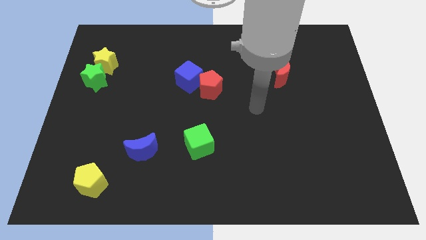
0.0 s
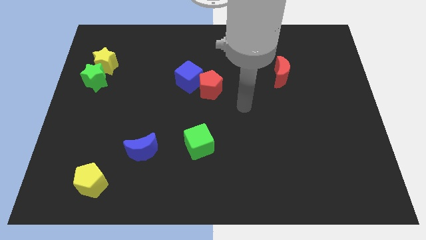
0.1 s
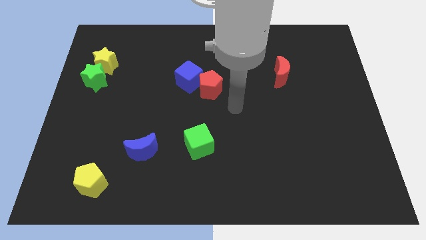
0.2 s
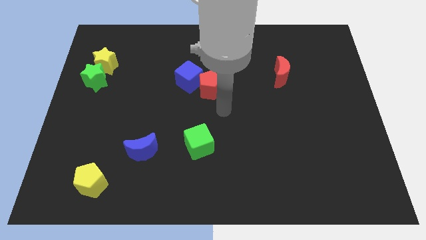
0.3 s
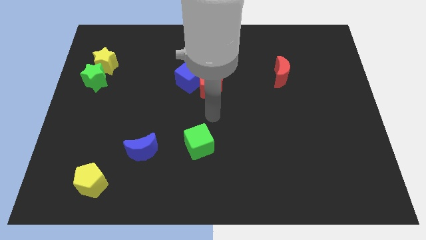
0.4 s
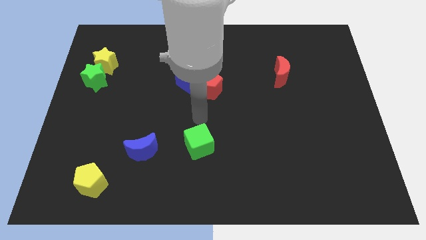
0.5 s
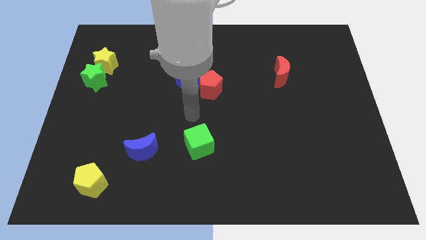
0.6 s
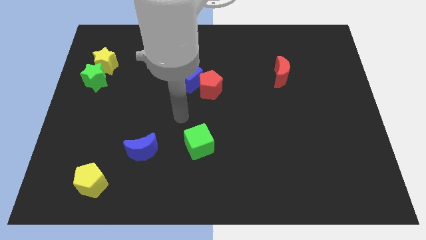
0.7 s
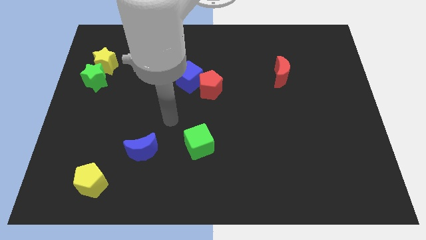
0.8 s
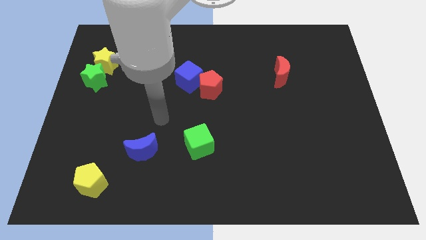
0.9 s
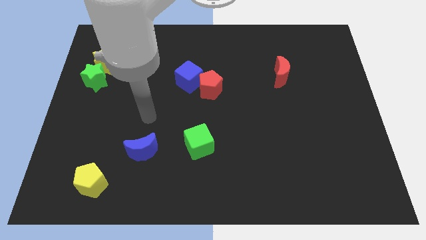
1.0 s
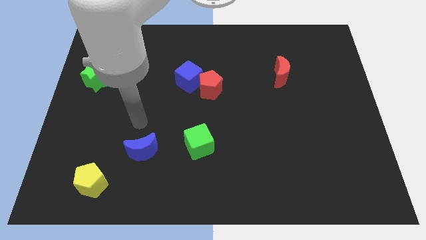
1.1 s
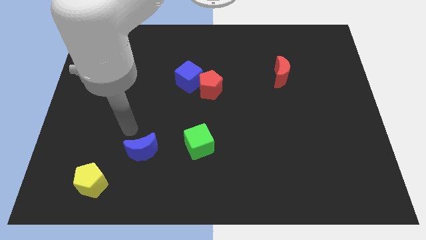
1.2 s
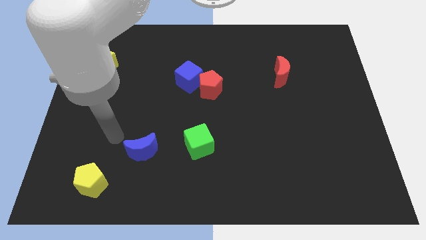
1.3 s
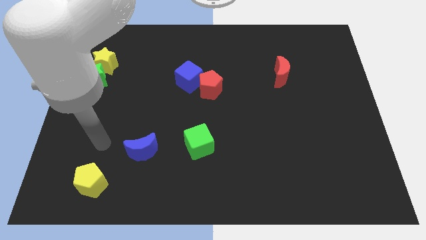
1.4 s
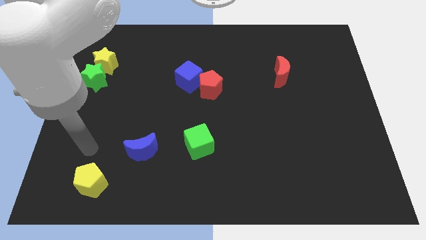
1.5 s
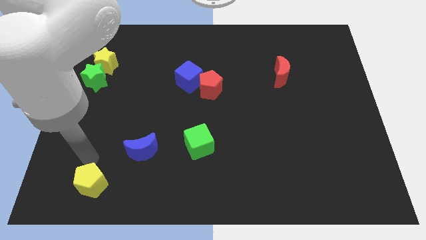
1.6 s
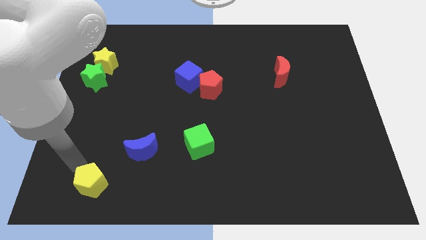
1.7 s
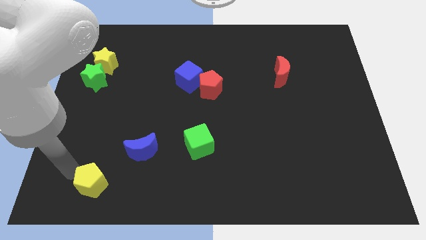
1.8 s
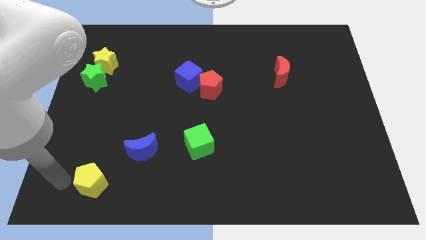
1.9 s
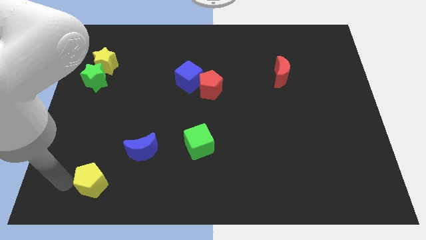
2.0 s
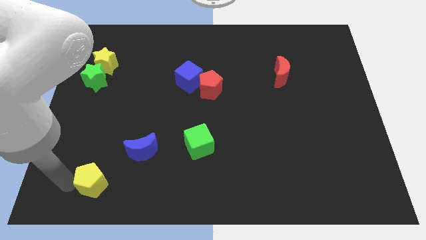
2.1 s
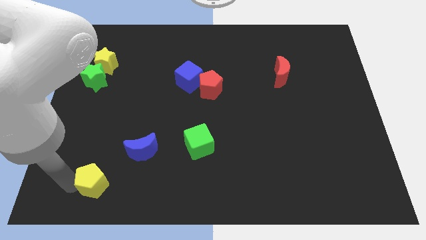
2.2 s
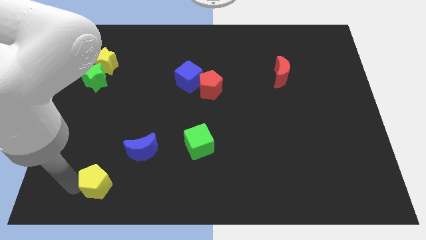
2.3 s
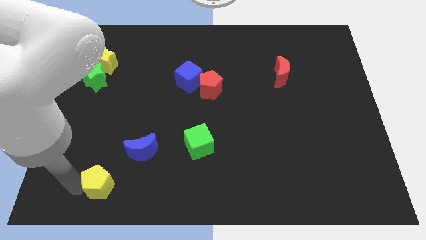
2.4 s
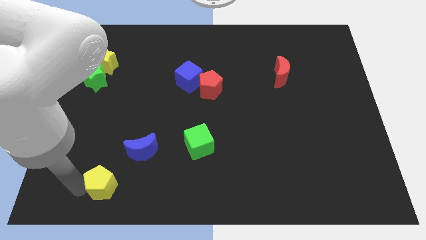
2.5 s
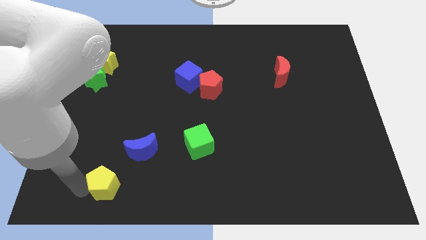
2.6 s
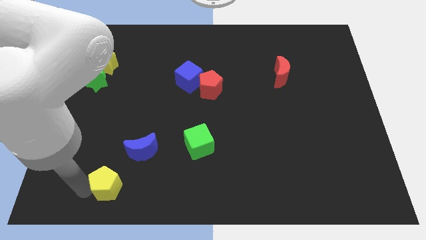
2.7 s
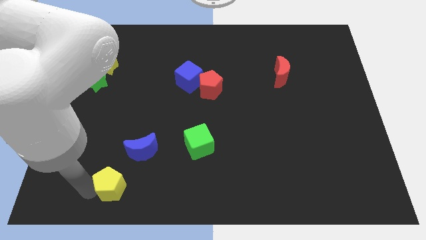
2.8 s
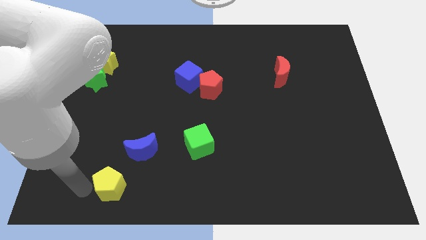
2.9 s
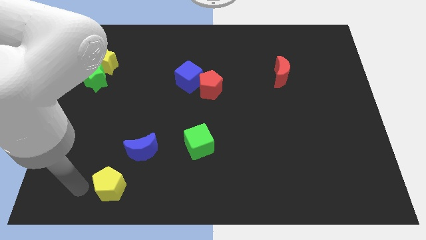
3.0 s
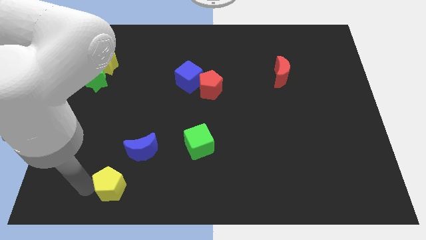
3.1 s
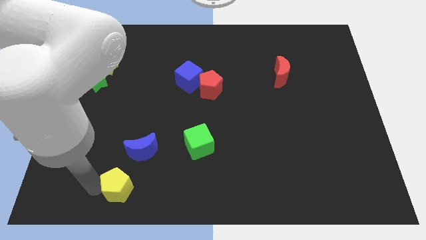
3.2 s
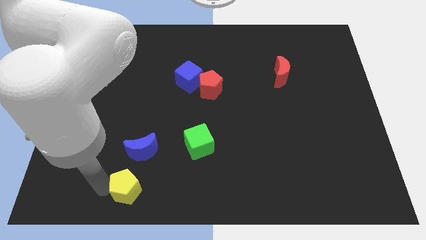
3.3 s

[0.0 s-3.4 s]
move the yellow pentagon right slightly

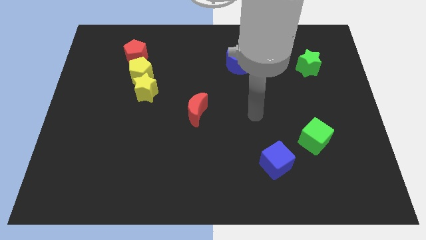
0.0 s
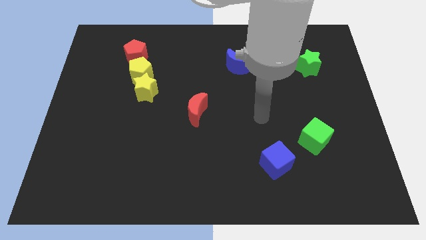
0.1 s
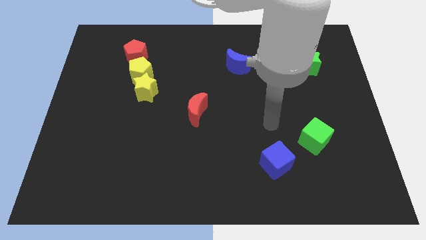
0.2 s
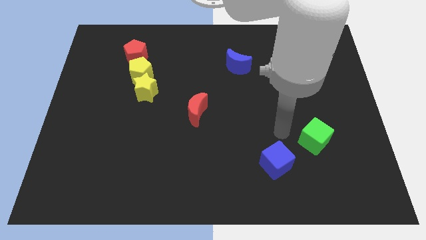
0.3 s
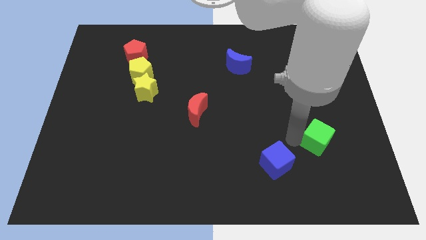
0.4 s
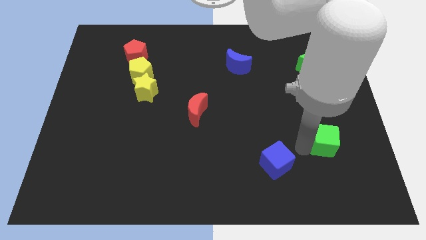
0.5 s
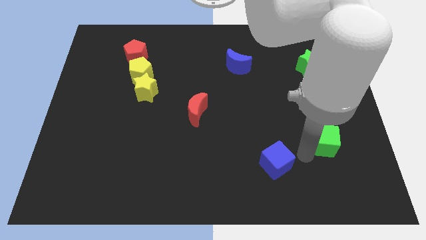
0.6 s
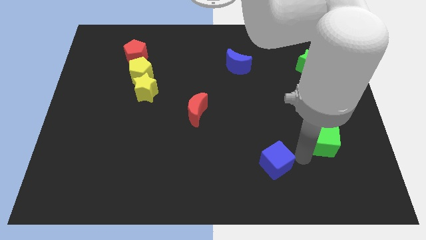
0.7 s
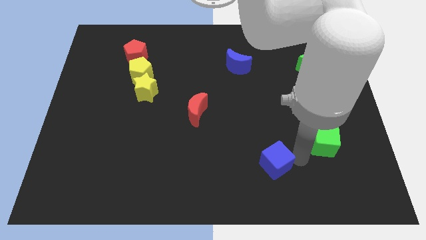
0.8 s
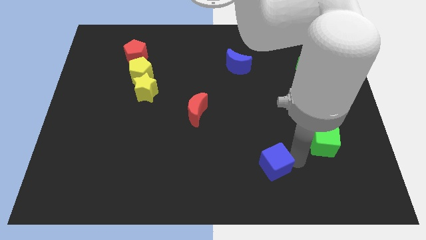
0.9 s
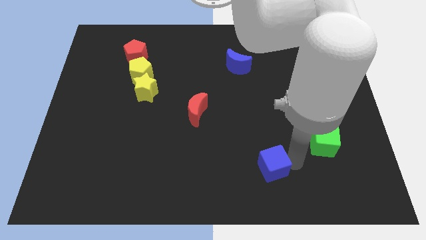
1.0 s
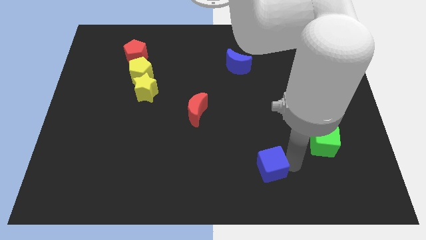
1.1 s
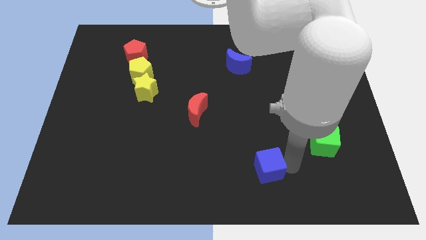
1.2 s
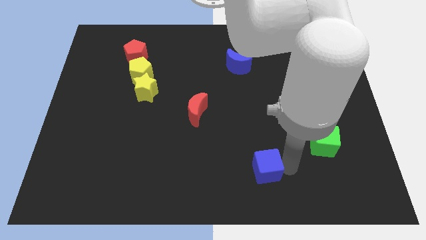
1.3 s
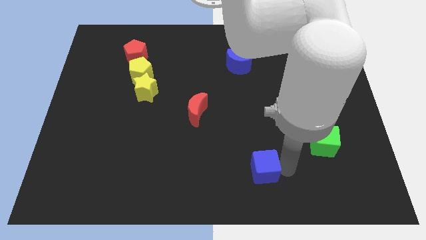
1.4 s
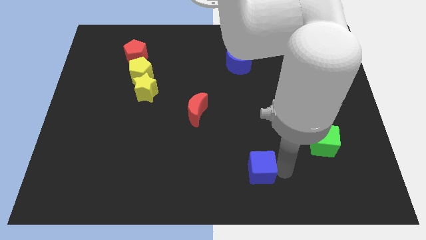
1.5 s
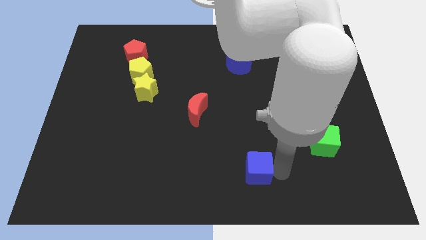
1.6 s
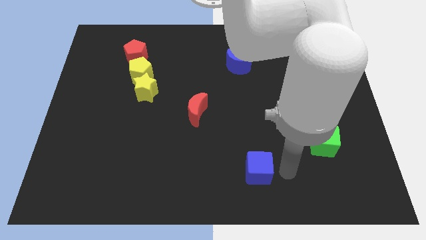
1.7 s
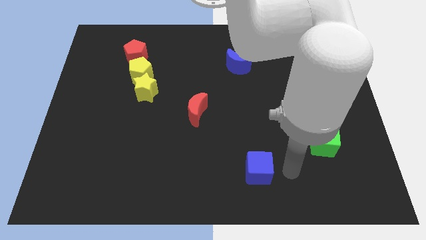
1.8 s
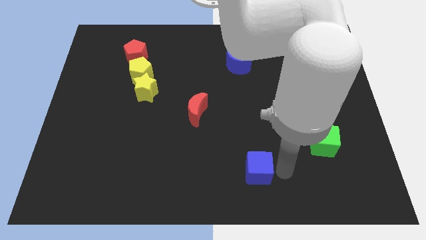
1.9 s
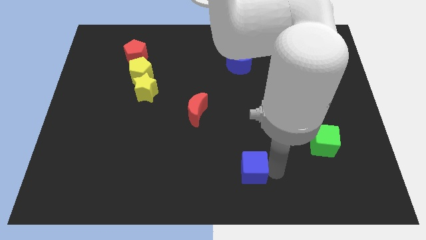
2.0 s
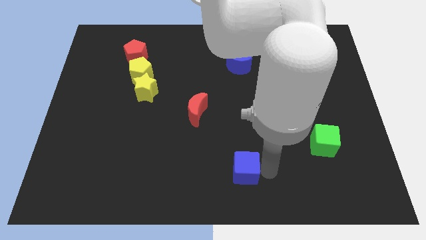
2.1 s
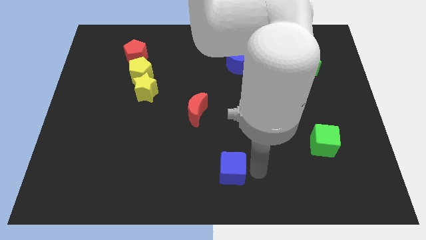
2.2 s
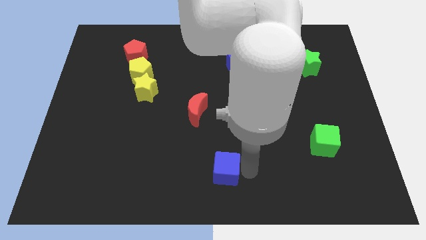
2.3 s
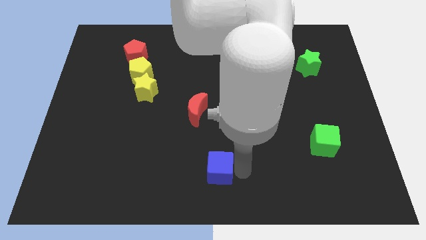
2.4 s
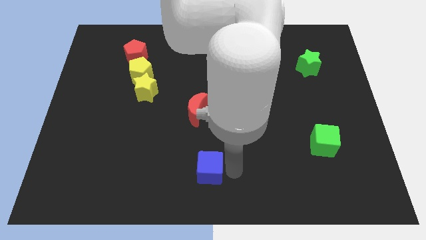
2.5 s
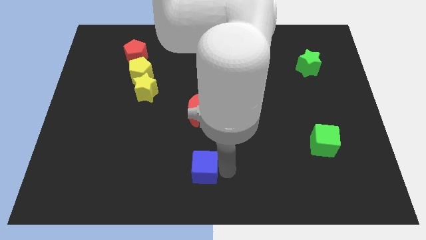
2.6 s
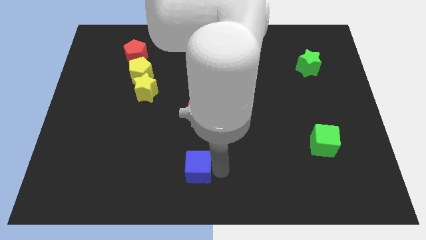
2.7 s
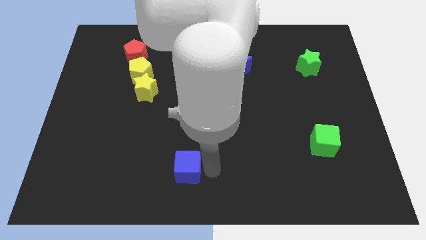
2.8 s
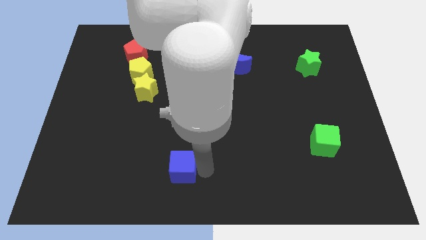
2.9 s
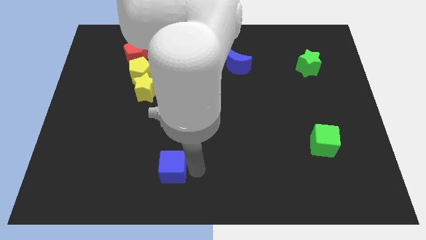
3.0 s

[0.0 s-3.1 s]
slide the blue cube to the left

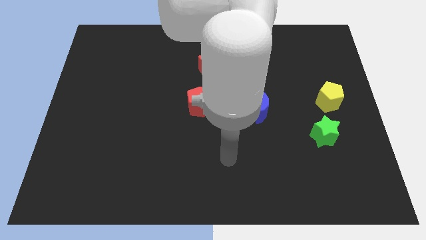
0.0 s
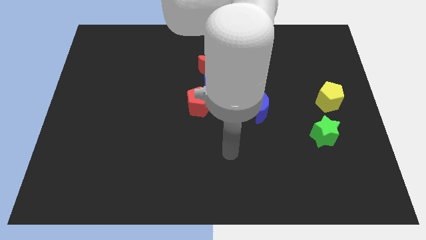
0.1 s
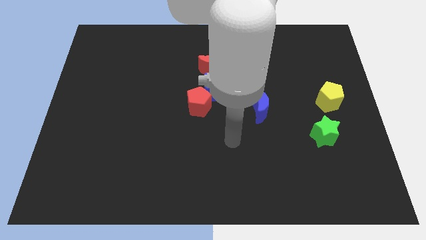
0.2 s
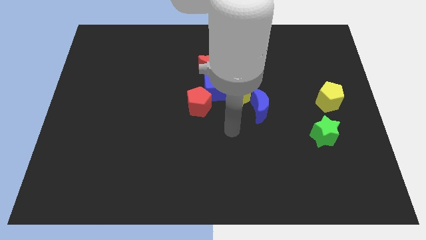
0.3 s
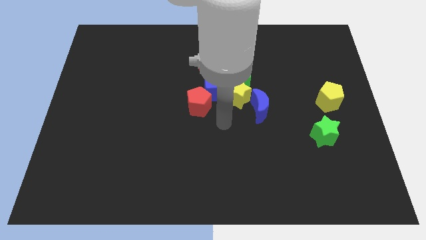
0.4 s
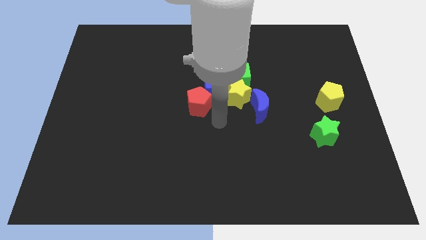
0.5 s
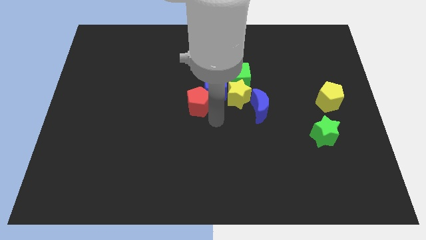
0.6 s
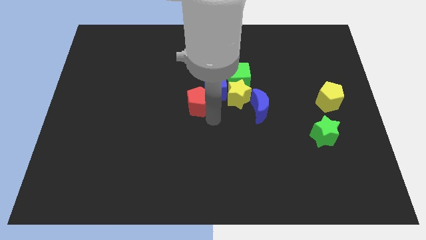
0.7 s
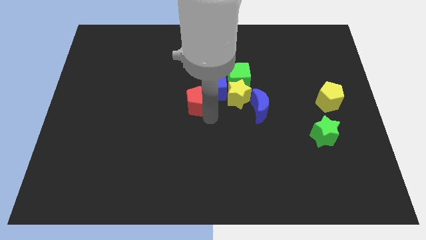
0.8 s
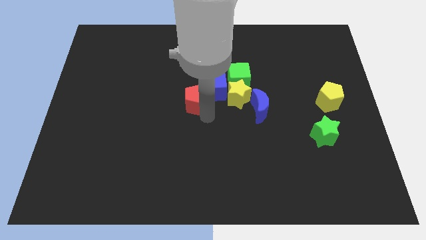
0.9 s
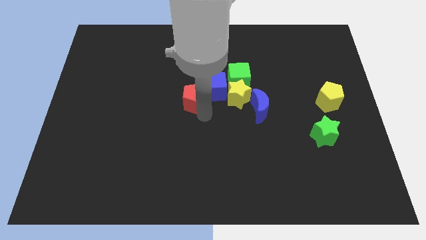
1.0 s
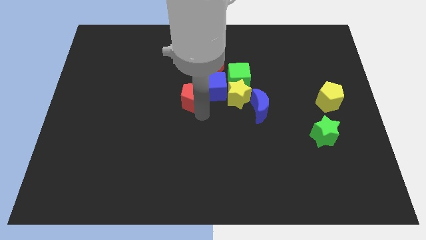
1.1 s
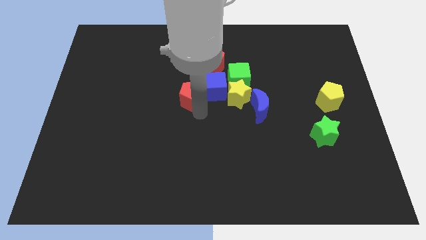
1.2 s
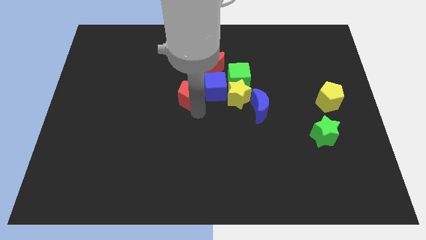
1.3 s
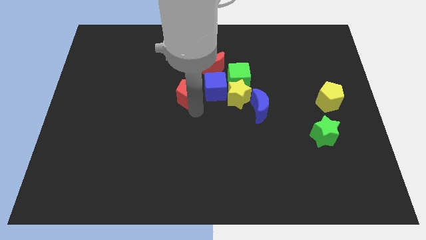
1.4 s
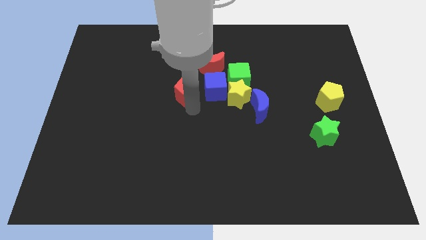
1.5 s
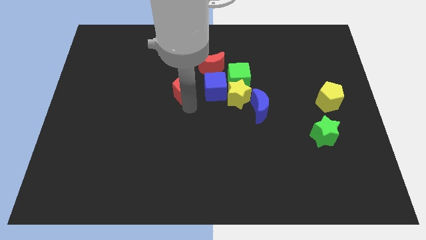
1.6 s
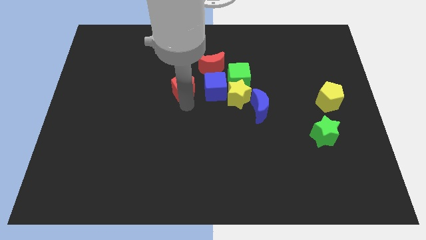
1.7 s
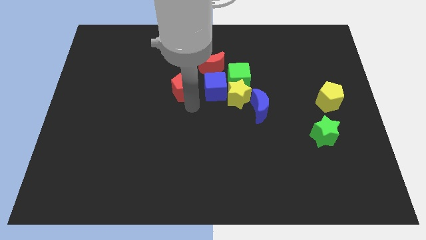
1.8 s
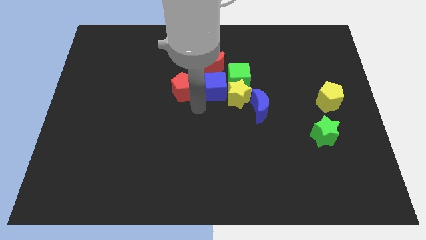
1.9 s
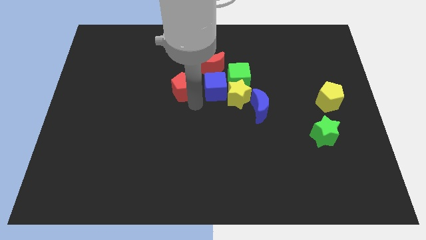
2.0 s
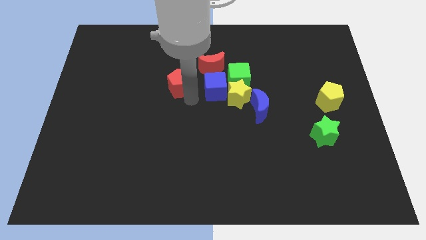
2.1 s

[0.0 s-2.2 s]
slide the red pentagon a little bit diagonally up and to the left
